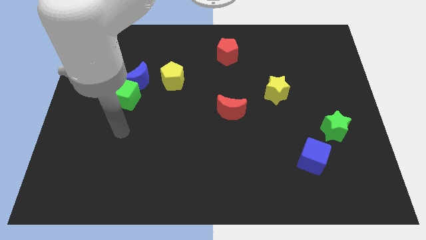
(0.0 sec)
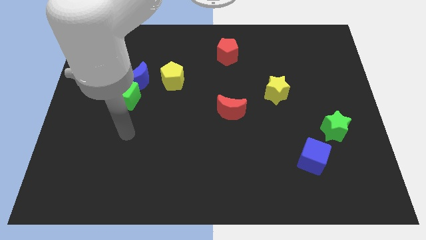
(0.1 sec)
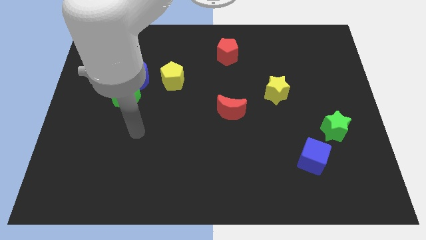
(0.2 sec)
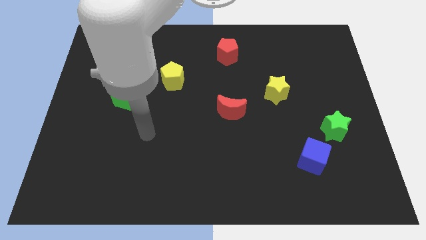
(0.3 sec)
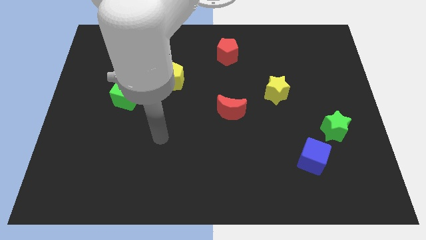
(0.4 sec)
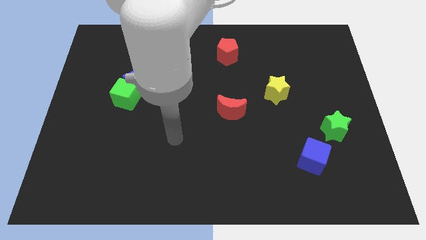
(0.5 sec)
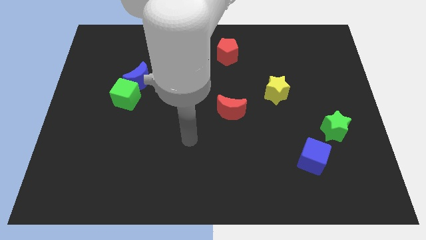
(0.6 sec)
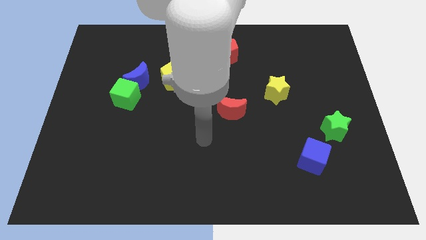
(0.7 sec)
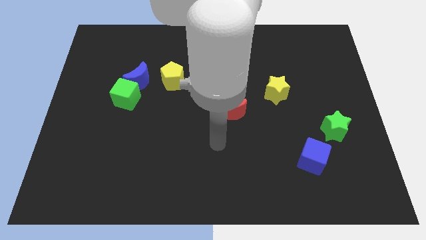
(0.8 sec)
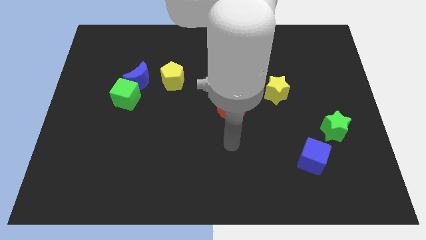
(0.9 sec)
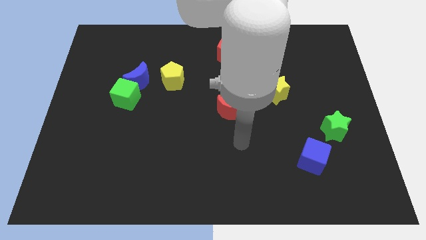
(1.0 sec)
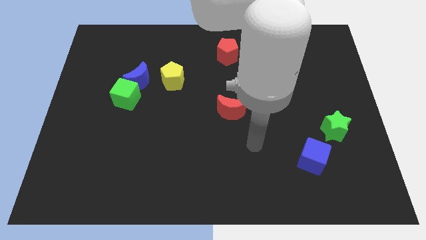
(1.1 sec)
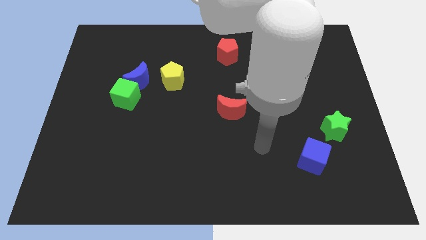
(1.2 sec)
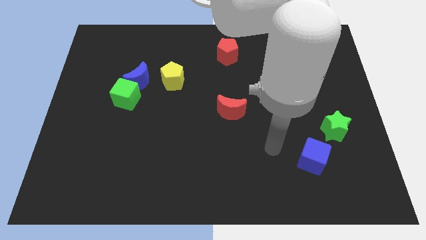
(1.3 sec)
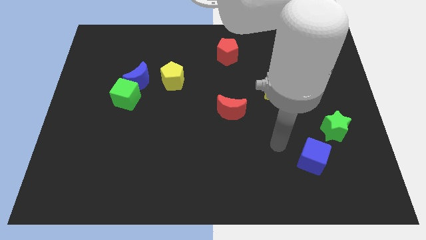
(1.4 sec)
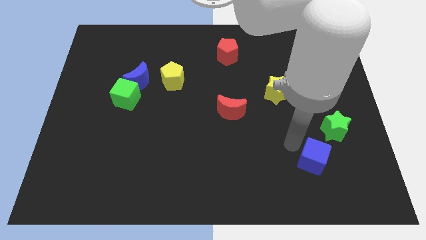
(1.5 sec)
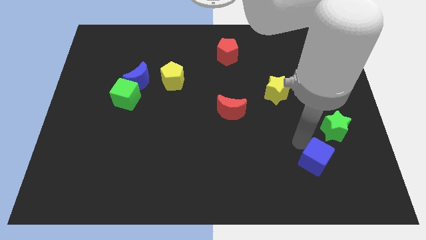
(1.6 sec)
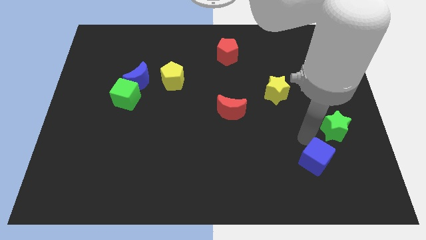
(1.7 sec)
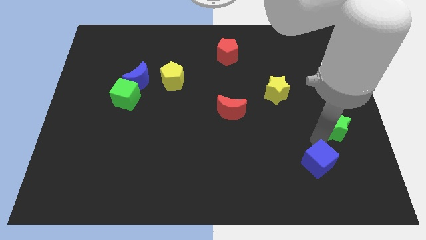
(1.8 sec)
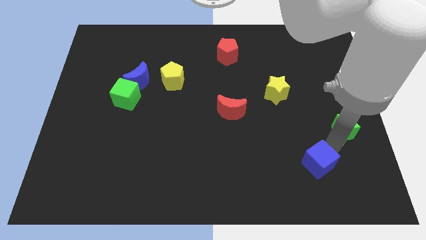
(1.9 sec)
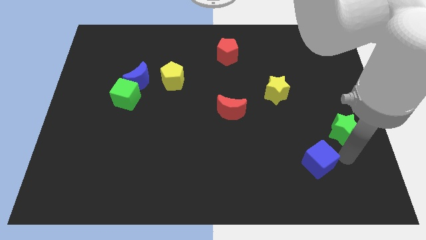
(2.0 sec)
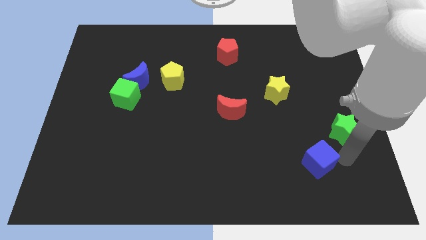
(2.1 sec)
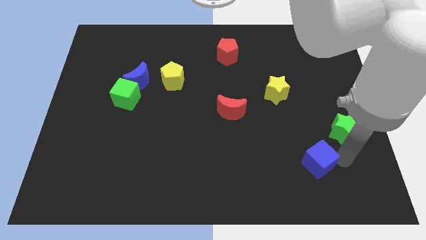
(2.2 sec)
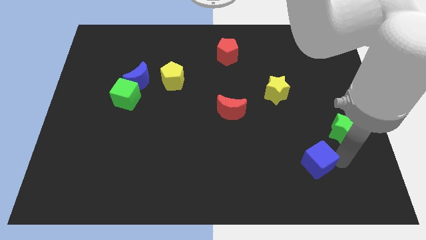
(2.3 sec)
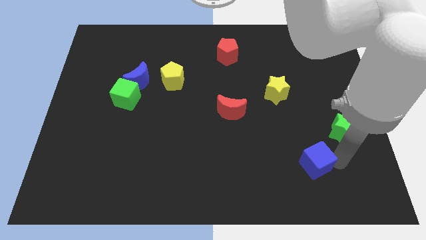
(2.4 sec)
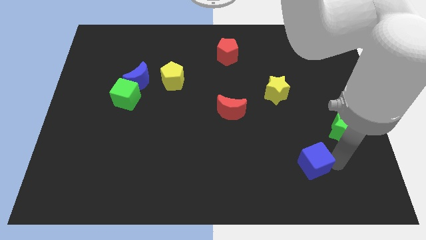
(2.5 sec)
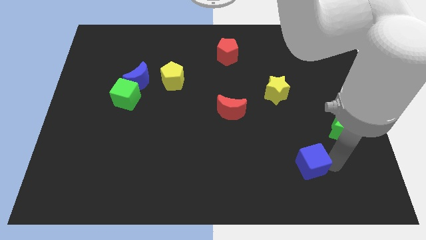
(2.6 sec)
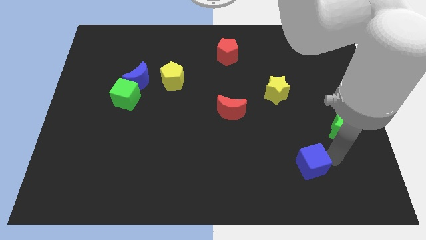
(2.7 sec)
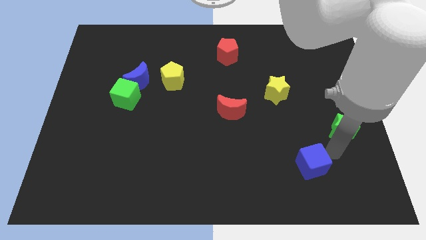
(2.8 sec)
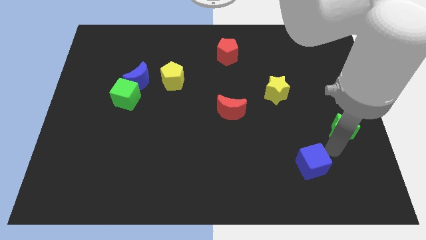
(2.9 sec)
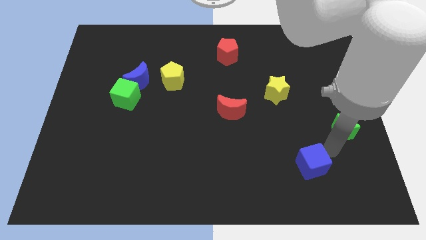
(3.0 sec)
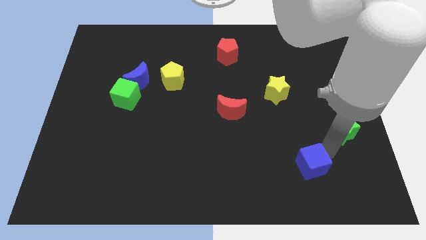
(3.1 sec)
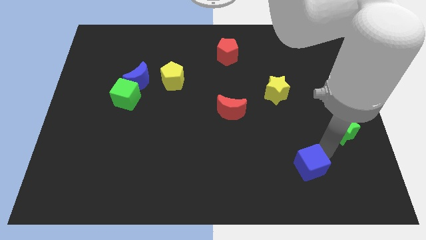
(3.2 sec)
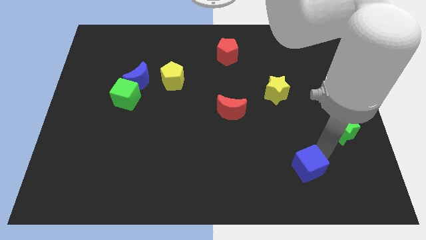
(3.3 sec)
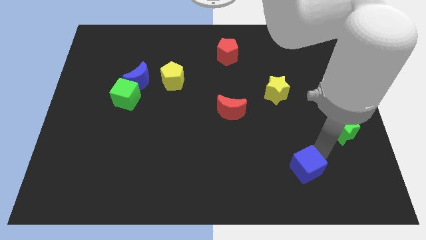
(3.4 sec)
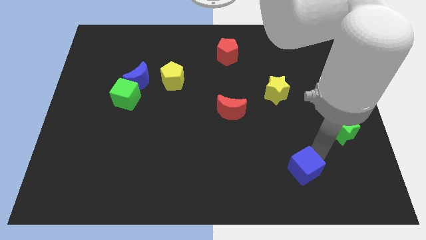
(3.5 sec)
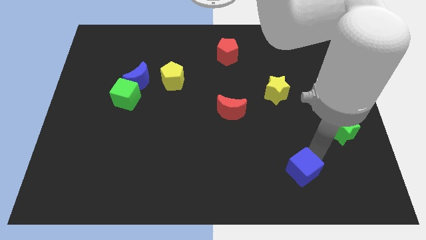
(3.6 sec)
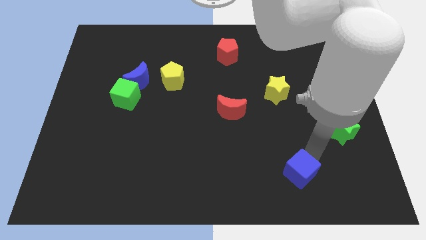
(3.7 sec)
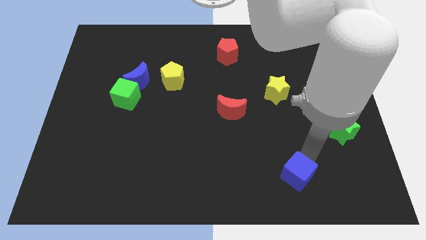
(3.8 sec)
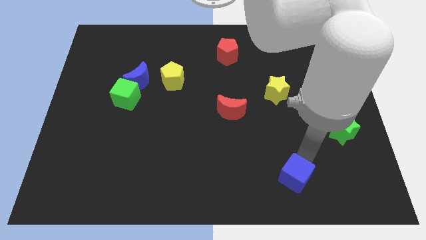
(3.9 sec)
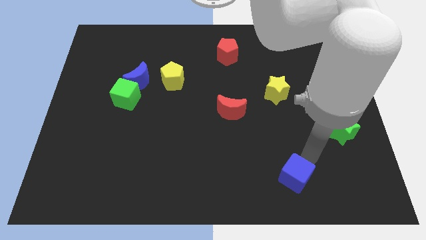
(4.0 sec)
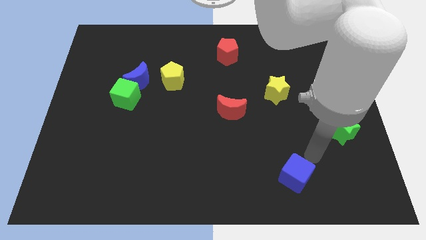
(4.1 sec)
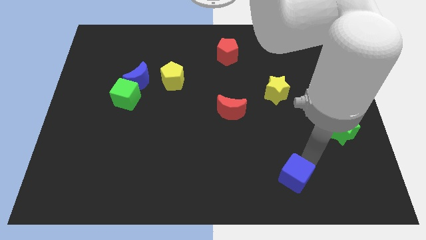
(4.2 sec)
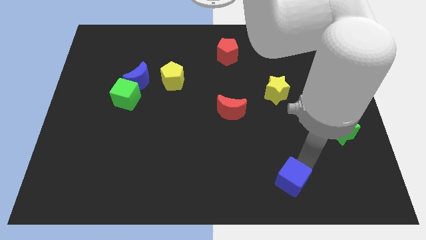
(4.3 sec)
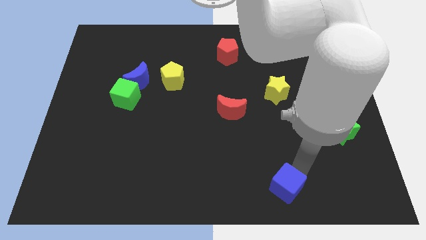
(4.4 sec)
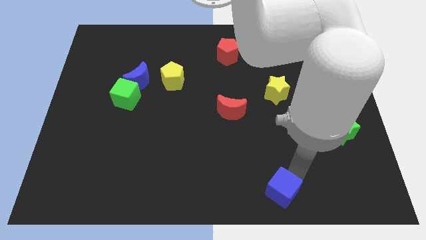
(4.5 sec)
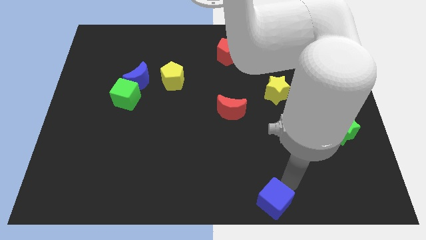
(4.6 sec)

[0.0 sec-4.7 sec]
push the blue cube to the bottom

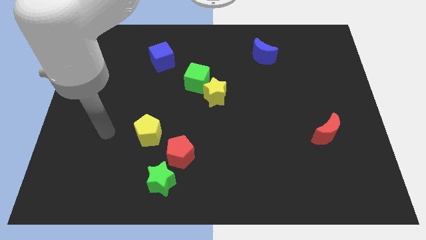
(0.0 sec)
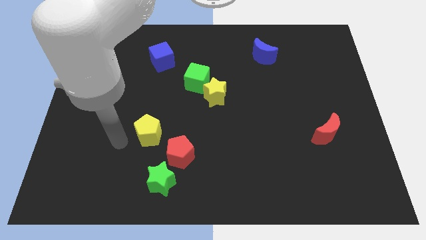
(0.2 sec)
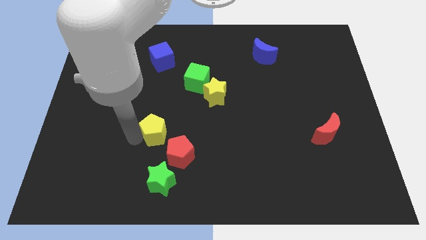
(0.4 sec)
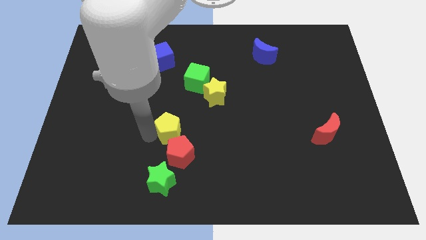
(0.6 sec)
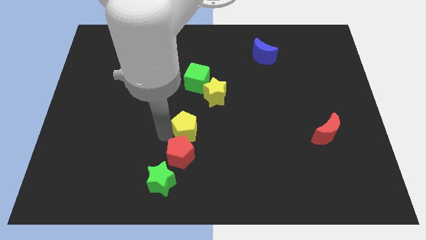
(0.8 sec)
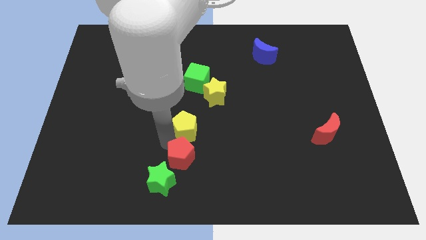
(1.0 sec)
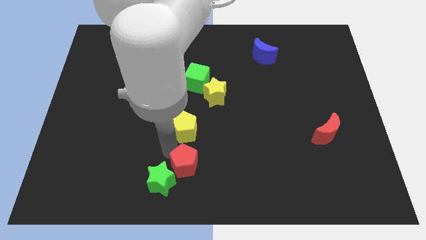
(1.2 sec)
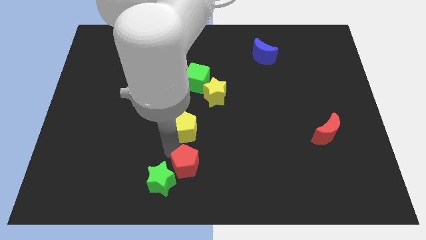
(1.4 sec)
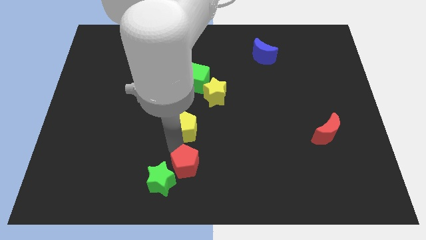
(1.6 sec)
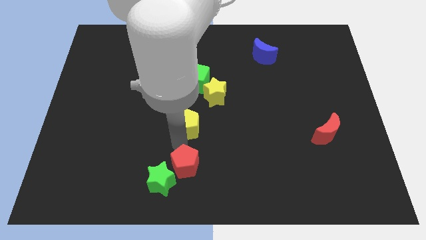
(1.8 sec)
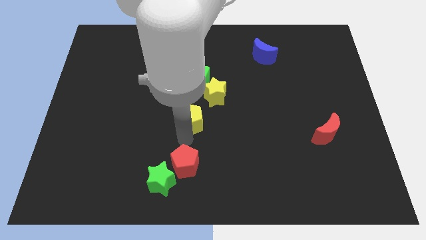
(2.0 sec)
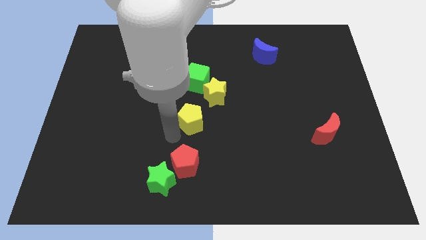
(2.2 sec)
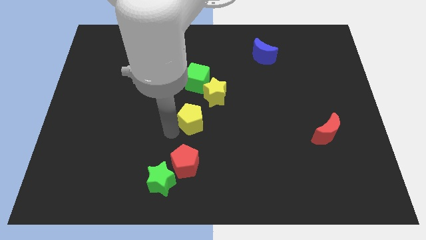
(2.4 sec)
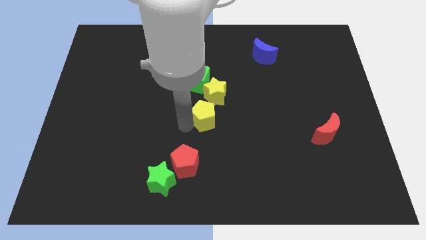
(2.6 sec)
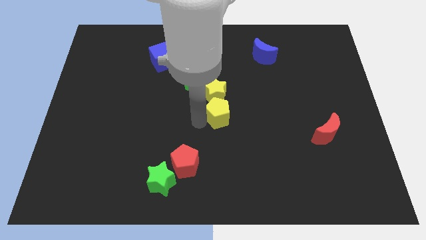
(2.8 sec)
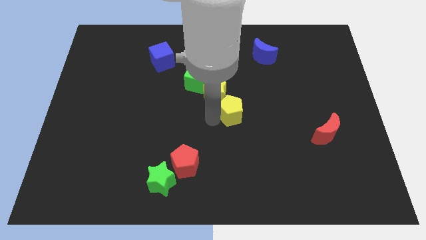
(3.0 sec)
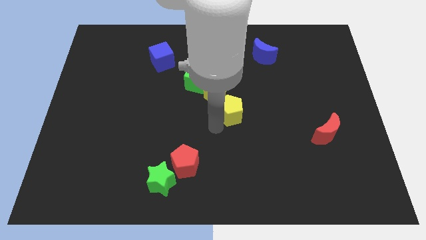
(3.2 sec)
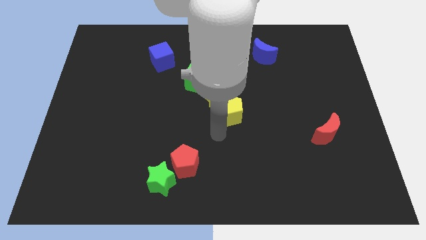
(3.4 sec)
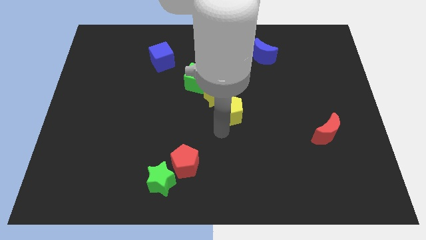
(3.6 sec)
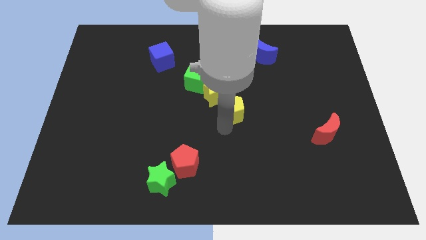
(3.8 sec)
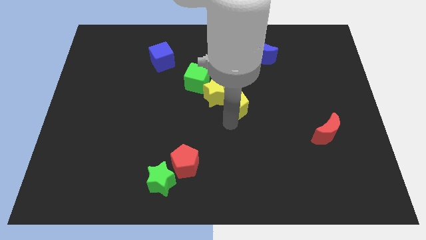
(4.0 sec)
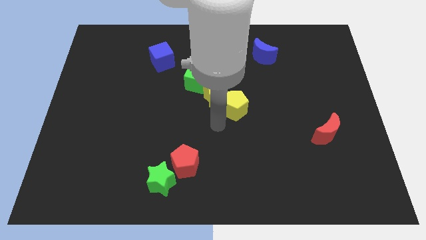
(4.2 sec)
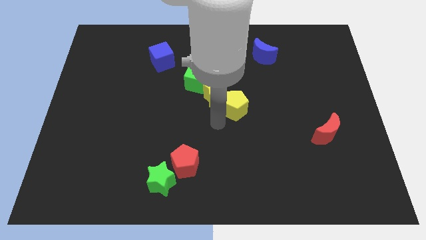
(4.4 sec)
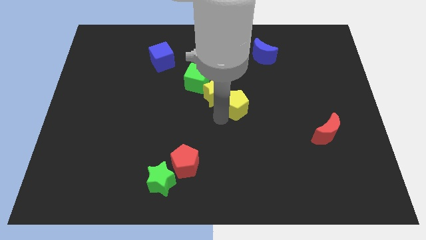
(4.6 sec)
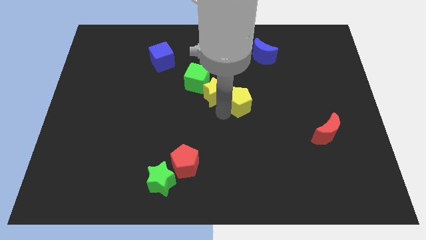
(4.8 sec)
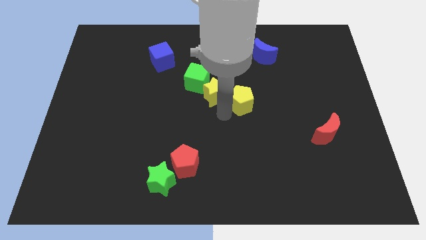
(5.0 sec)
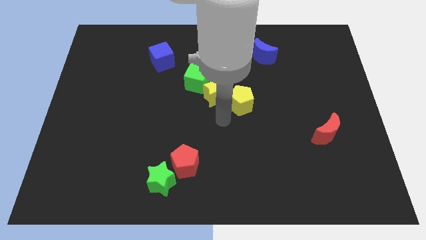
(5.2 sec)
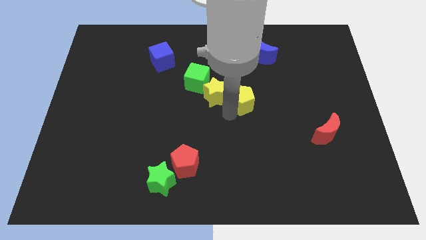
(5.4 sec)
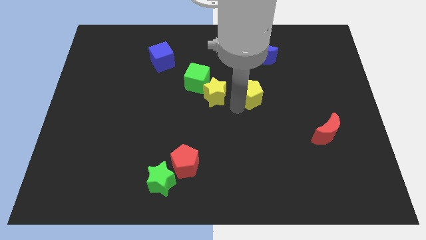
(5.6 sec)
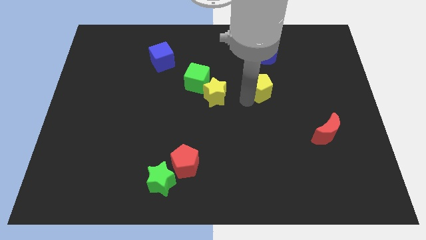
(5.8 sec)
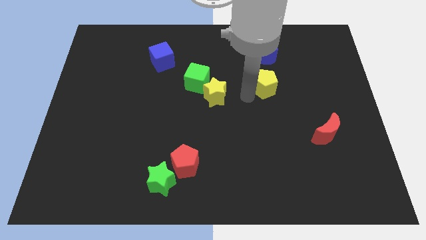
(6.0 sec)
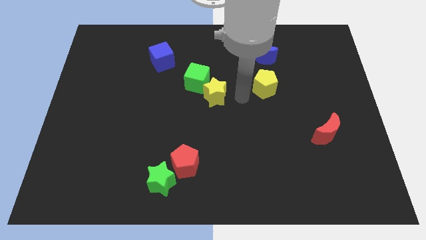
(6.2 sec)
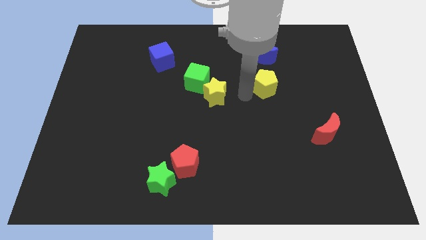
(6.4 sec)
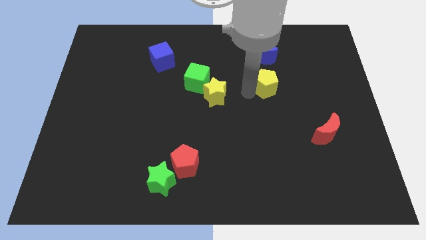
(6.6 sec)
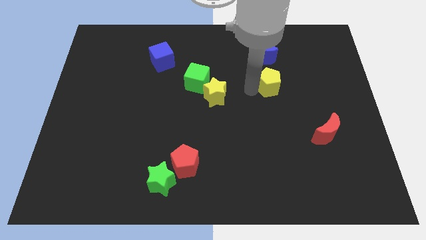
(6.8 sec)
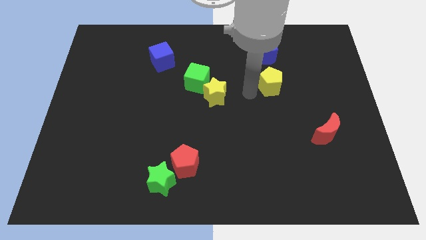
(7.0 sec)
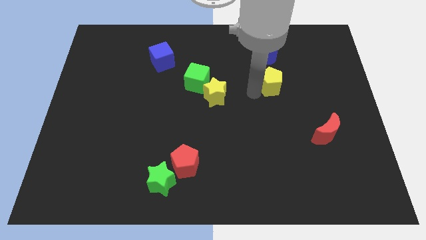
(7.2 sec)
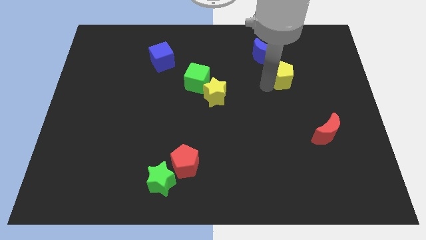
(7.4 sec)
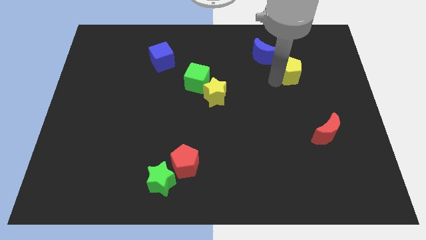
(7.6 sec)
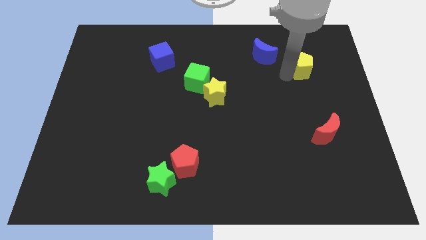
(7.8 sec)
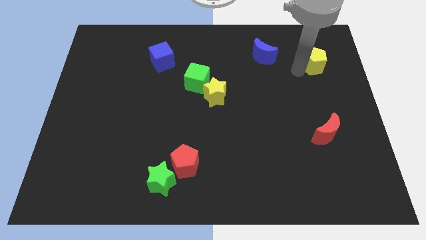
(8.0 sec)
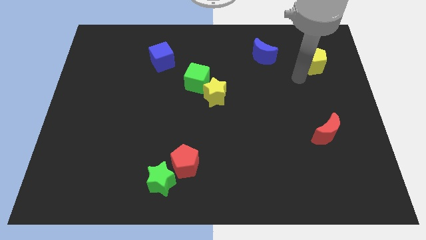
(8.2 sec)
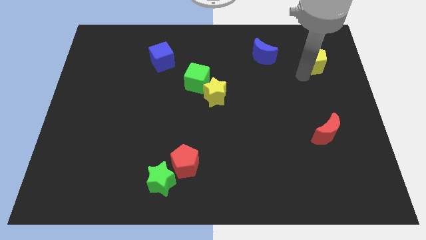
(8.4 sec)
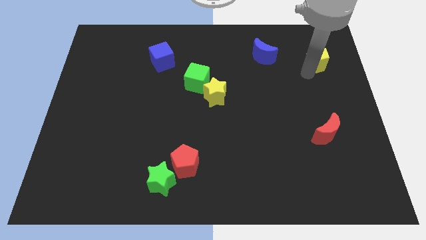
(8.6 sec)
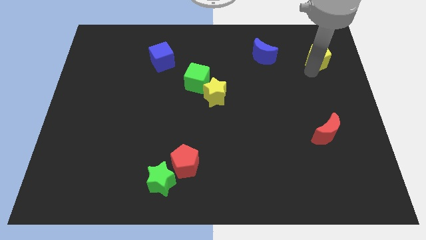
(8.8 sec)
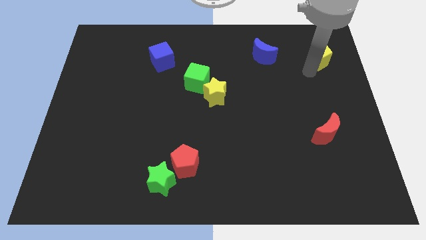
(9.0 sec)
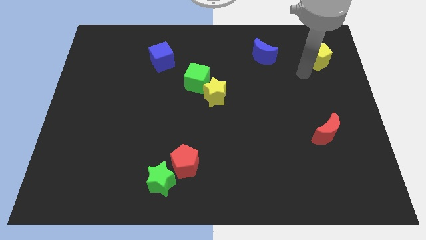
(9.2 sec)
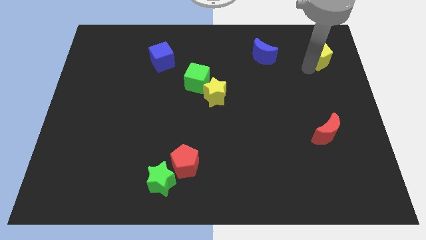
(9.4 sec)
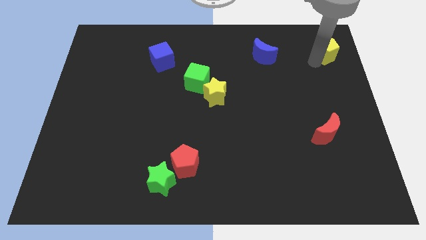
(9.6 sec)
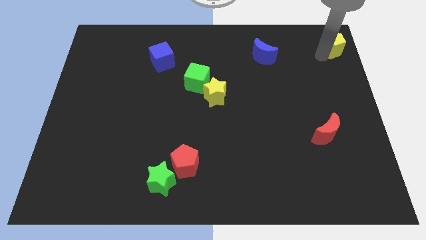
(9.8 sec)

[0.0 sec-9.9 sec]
slide the yellow pentagon to the top right corner
